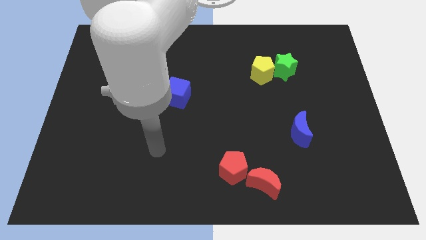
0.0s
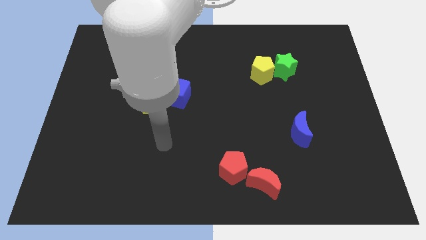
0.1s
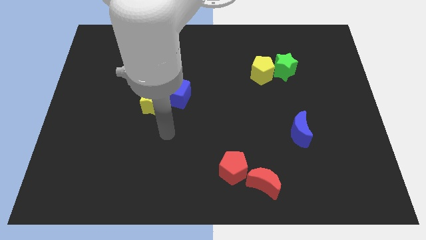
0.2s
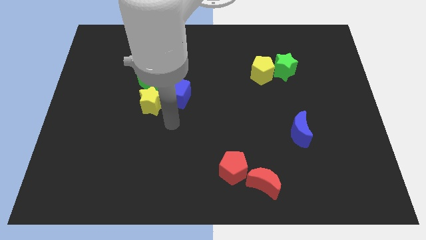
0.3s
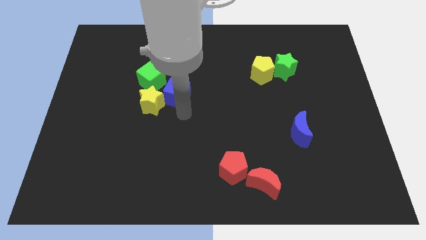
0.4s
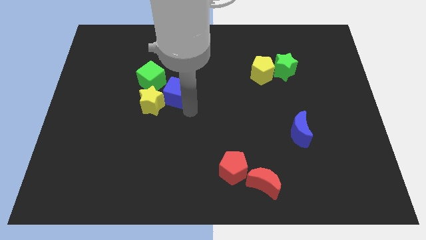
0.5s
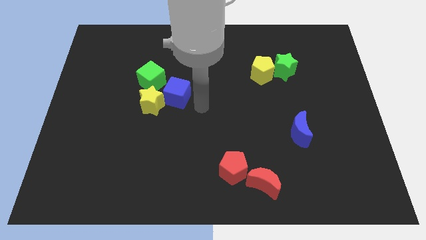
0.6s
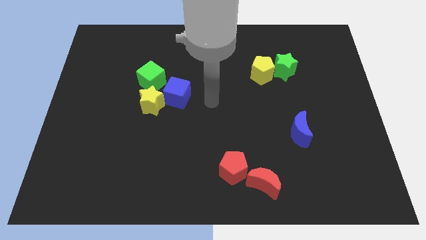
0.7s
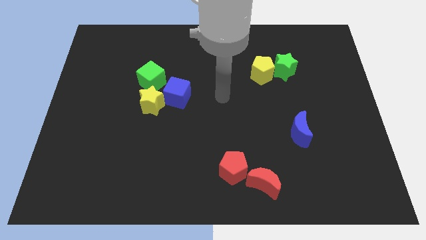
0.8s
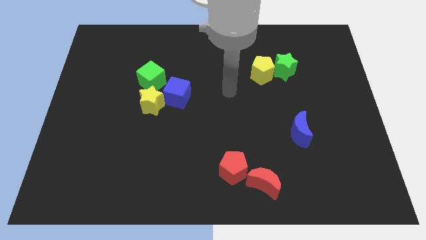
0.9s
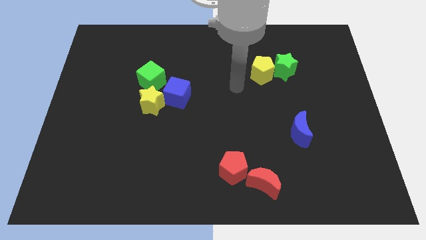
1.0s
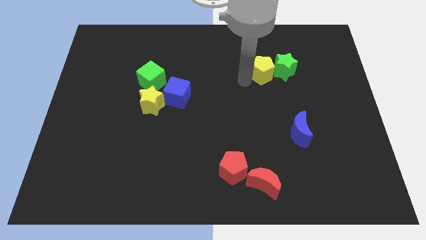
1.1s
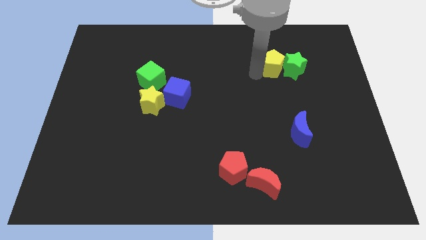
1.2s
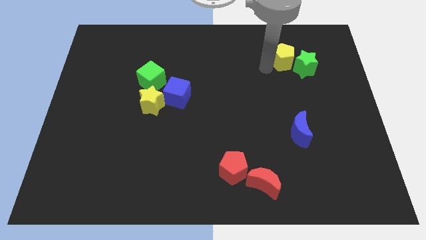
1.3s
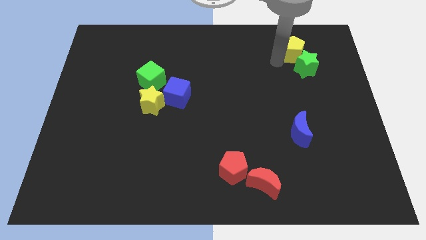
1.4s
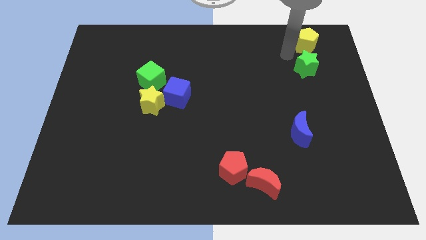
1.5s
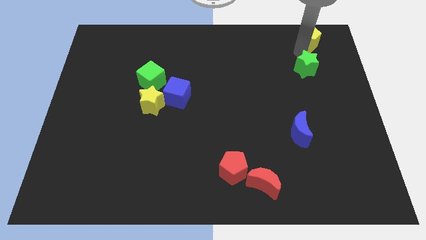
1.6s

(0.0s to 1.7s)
pull the green star apart from the yellow pentagon

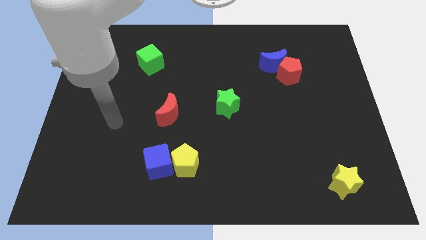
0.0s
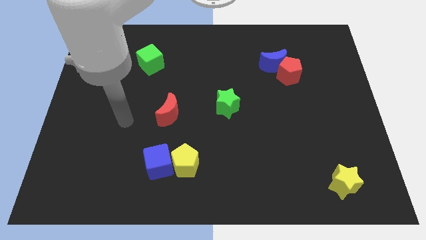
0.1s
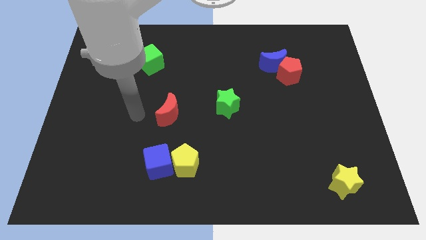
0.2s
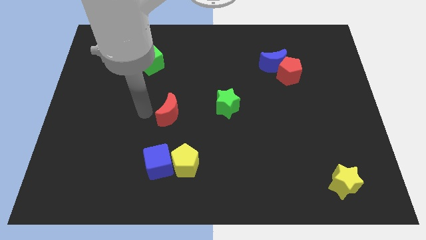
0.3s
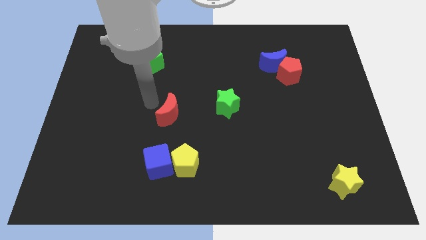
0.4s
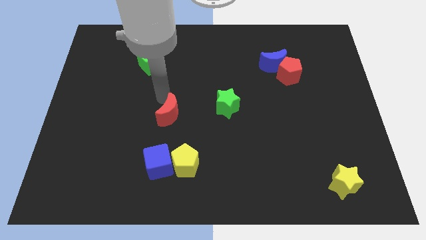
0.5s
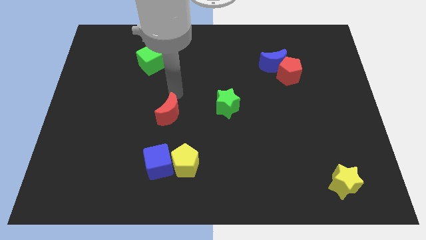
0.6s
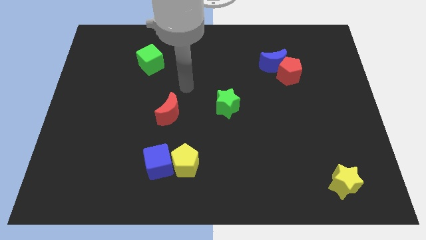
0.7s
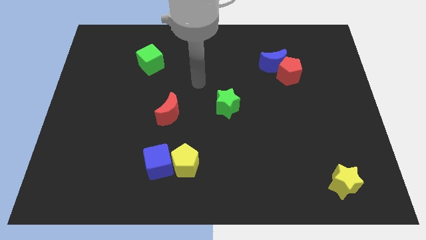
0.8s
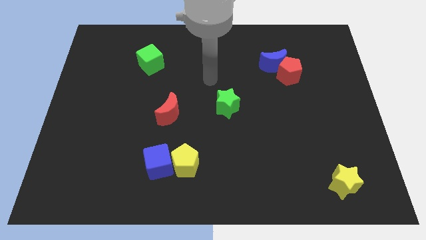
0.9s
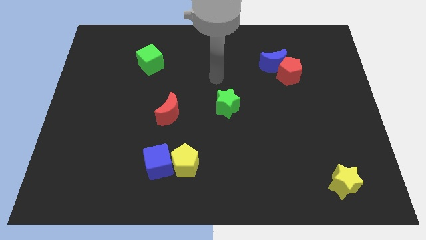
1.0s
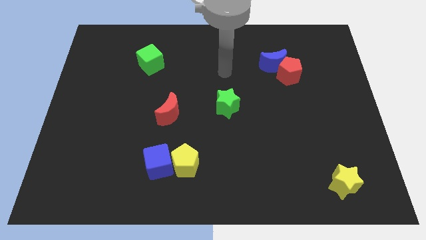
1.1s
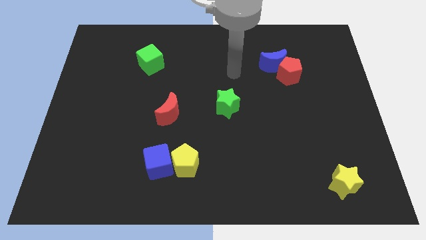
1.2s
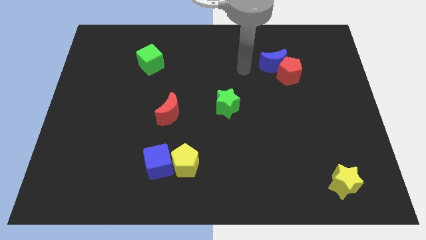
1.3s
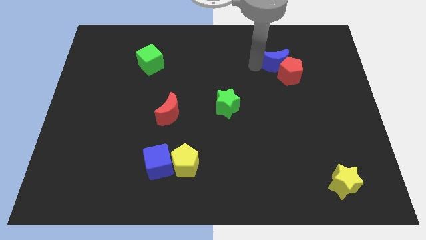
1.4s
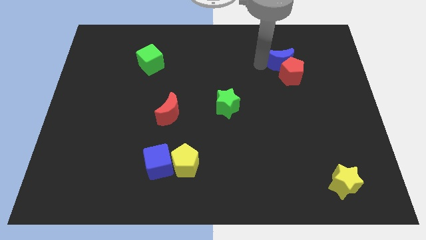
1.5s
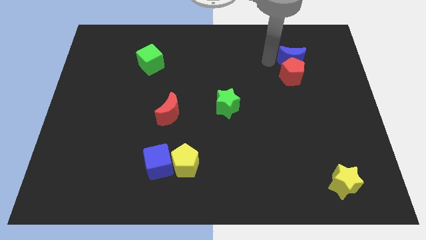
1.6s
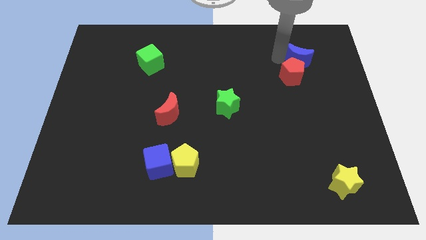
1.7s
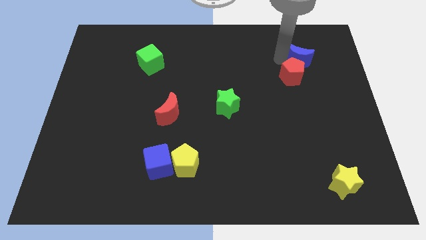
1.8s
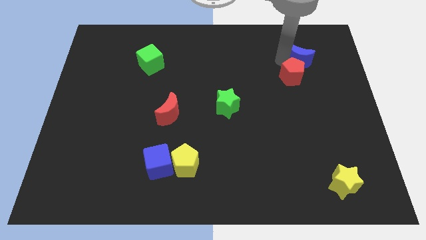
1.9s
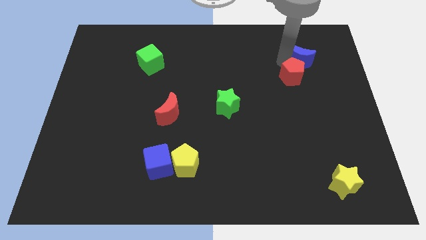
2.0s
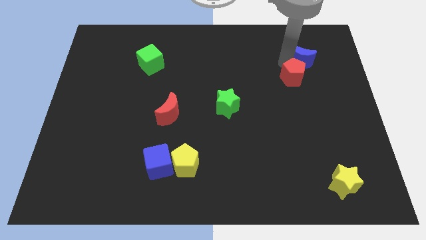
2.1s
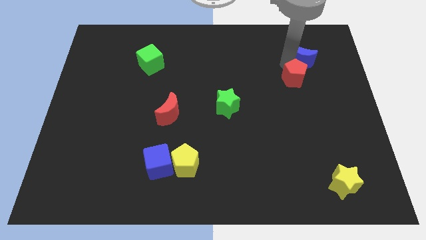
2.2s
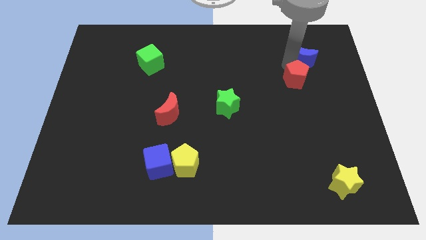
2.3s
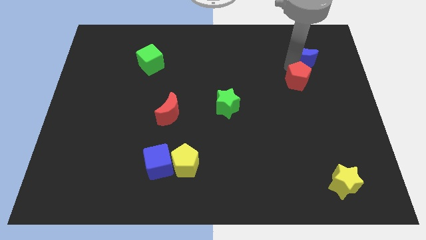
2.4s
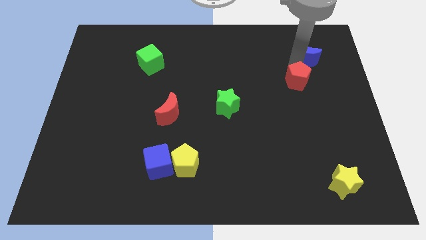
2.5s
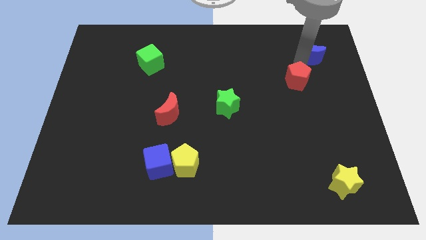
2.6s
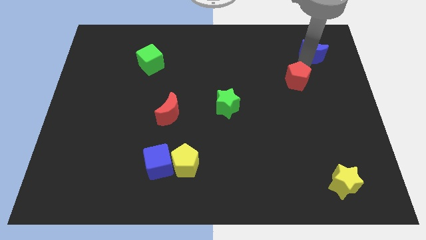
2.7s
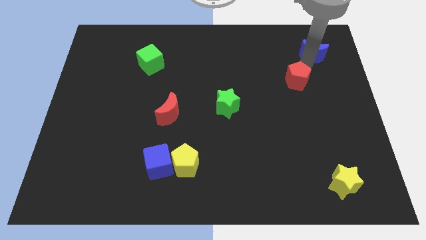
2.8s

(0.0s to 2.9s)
pull the red pentagon apart from the blue moon

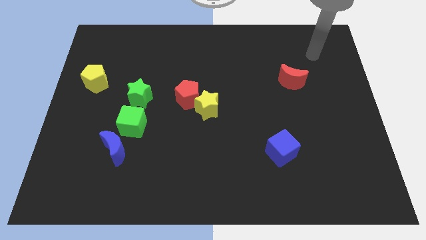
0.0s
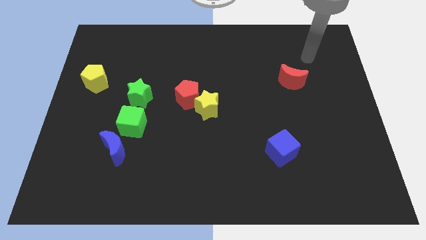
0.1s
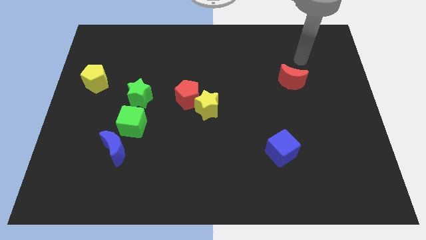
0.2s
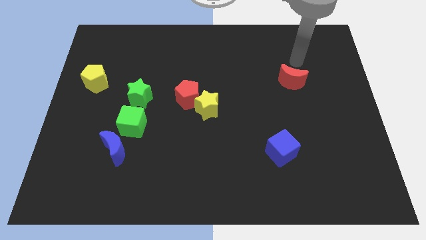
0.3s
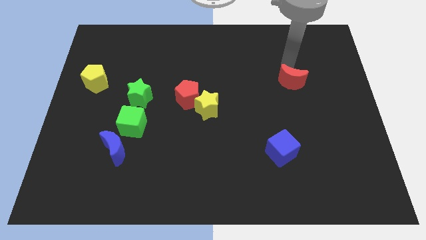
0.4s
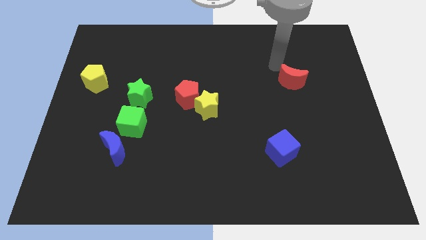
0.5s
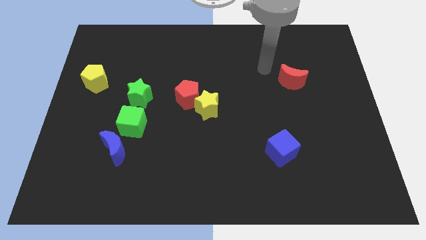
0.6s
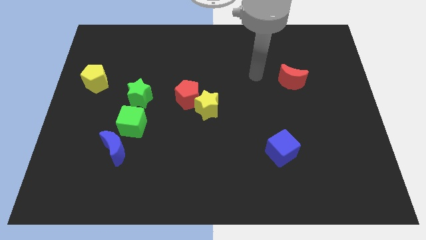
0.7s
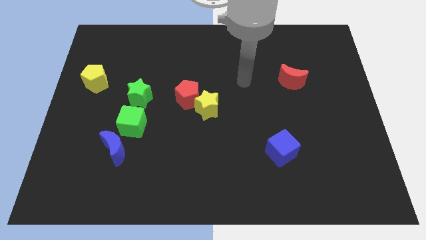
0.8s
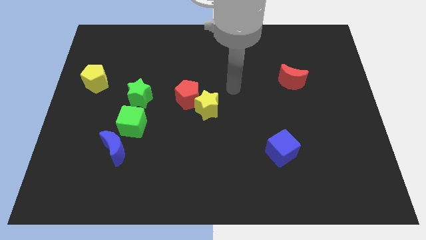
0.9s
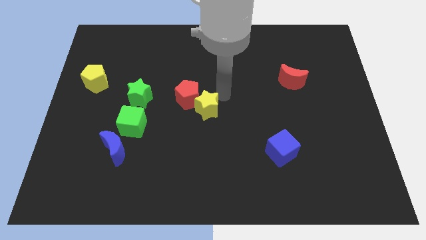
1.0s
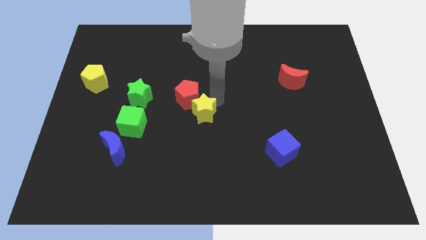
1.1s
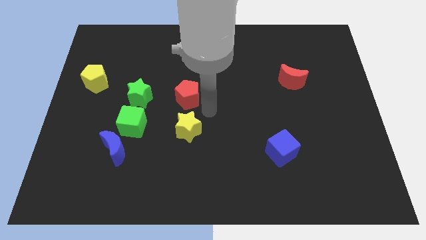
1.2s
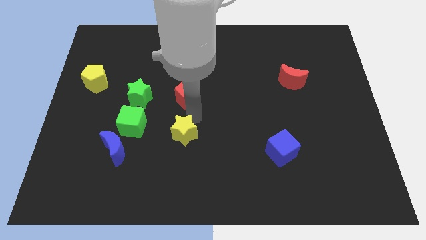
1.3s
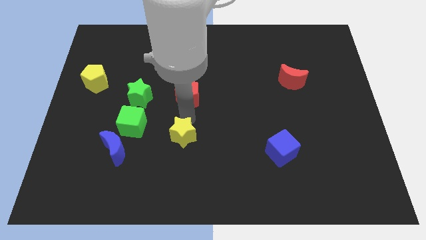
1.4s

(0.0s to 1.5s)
move the red pentagon away from the yellow star

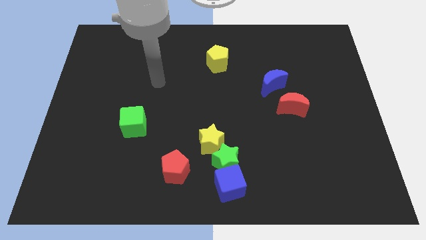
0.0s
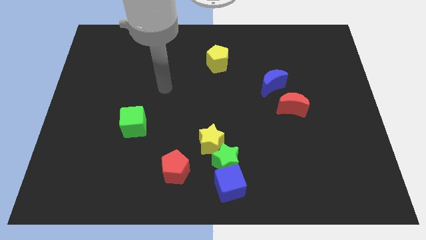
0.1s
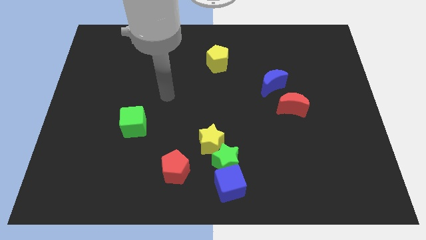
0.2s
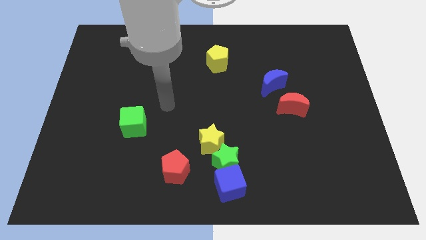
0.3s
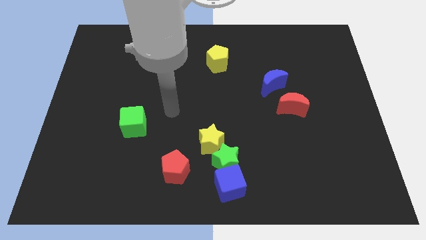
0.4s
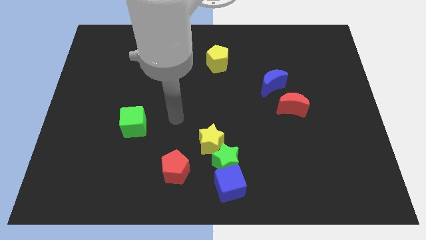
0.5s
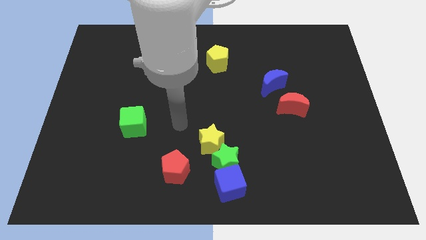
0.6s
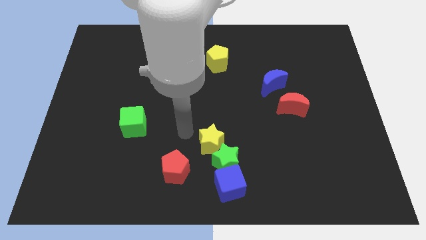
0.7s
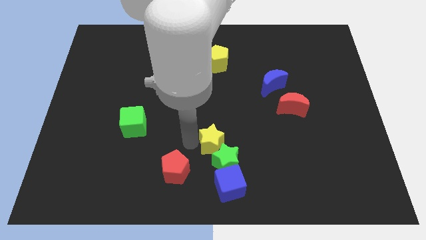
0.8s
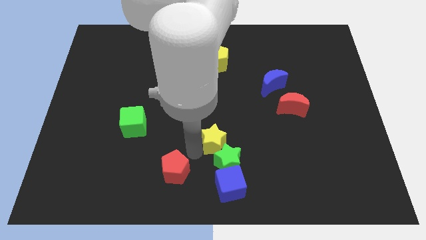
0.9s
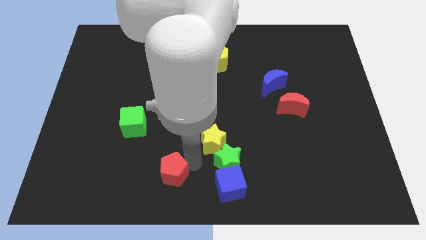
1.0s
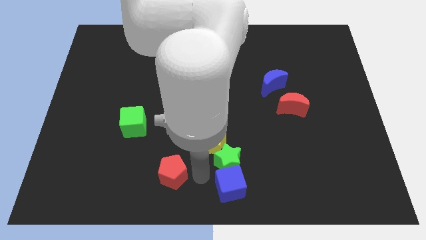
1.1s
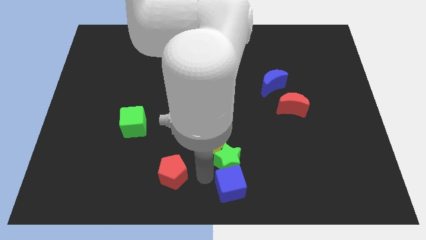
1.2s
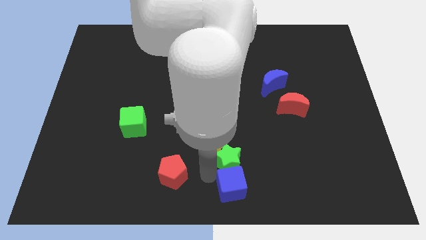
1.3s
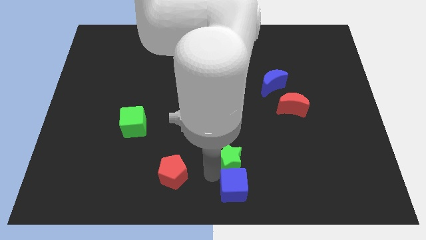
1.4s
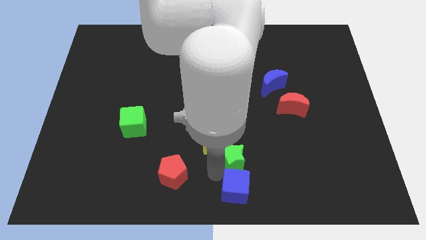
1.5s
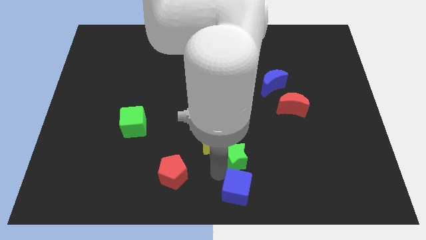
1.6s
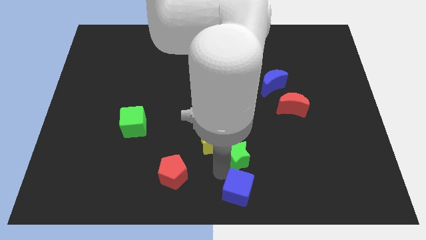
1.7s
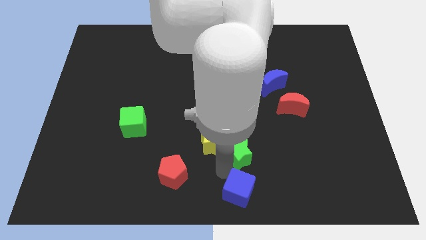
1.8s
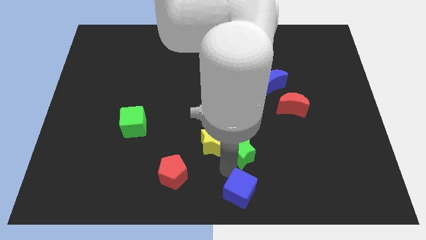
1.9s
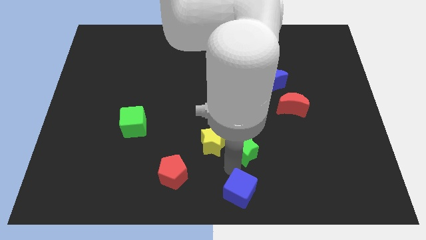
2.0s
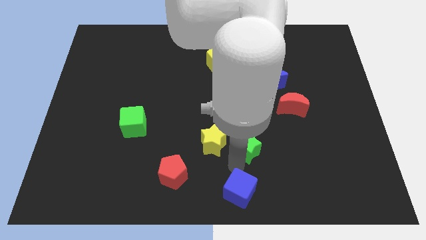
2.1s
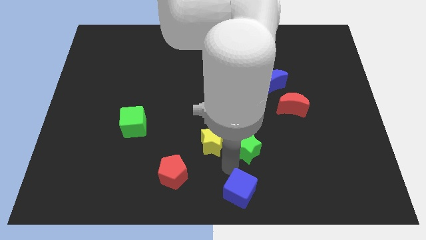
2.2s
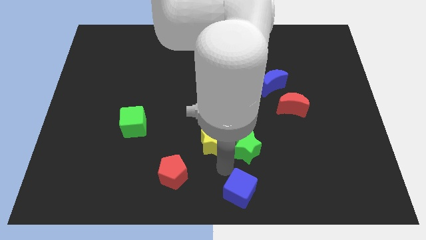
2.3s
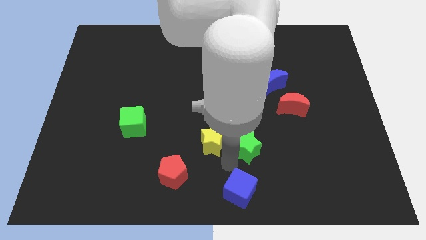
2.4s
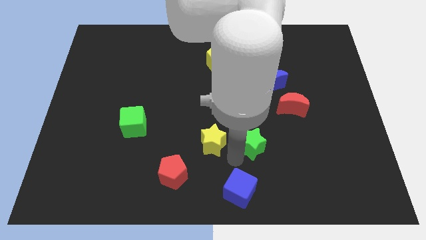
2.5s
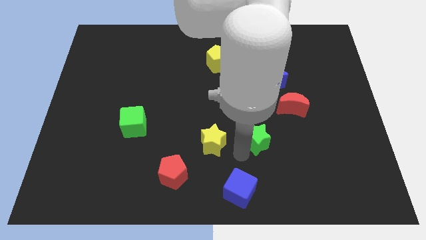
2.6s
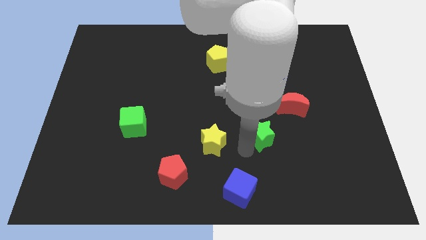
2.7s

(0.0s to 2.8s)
separate the green star from the yellow star and blue cube

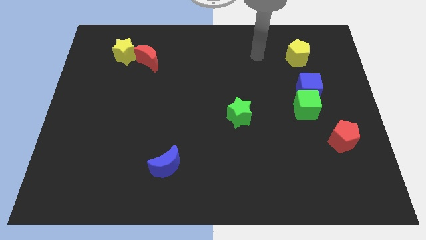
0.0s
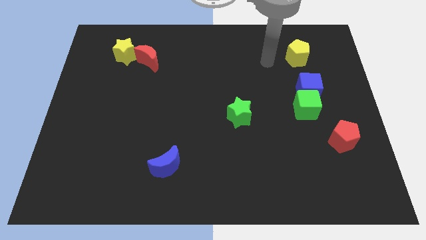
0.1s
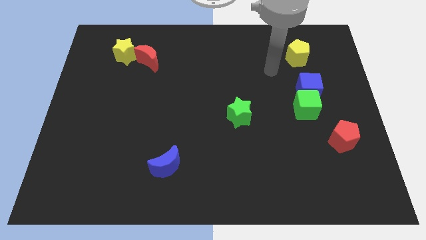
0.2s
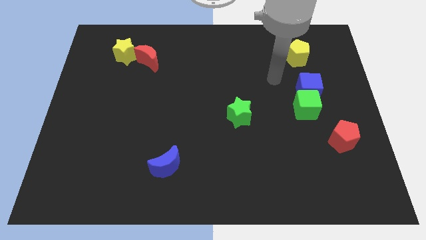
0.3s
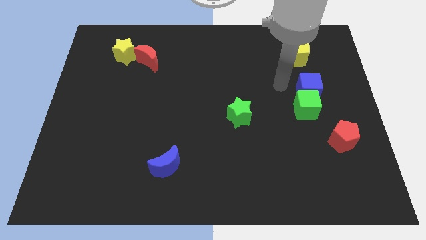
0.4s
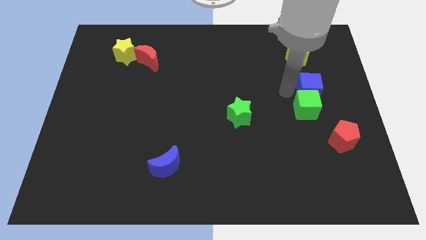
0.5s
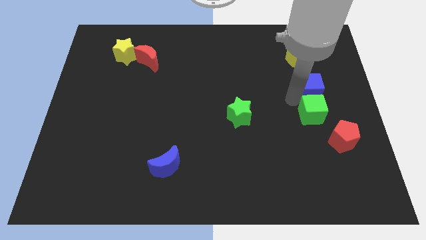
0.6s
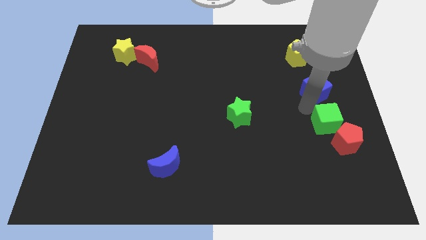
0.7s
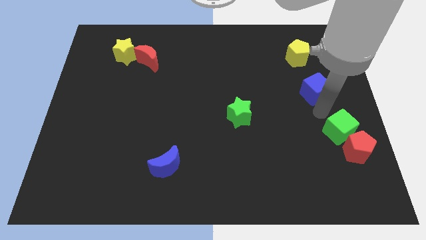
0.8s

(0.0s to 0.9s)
separate the blue cube from the green cube
